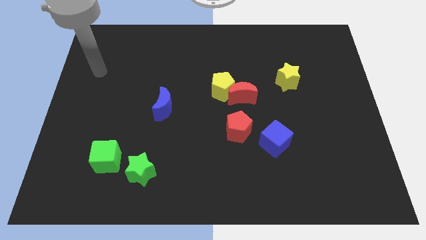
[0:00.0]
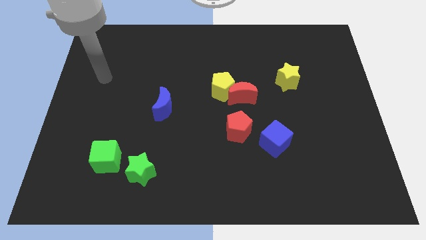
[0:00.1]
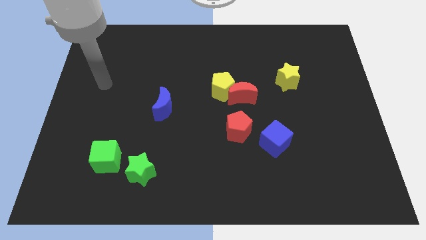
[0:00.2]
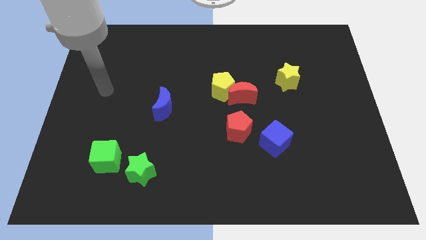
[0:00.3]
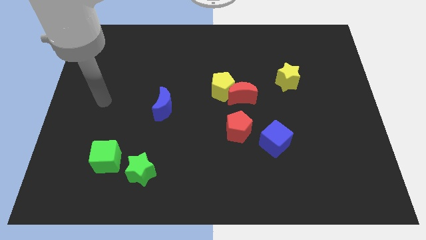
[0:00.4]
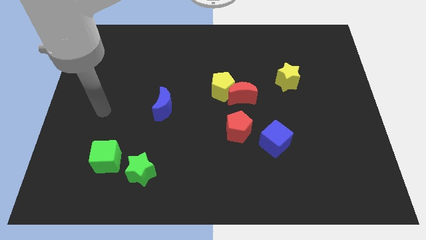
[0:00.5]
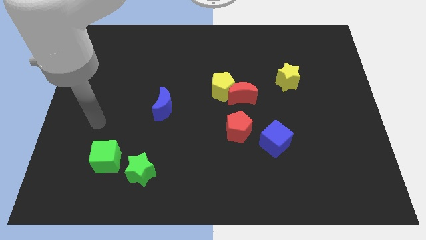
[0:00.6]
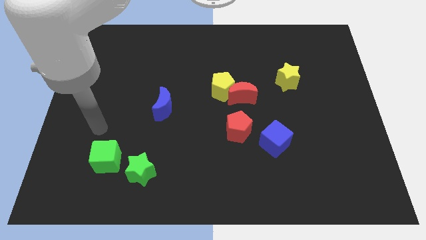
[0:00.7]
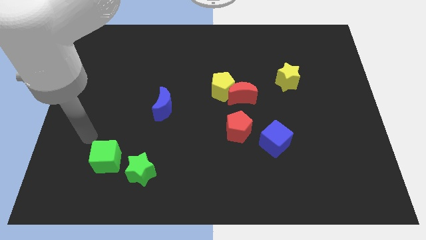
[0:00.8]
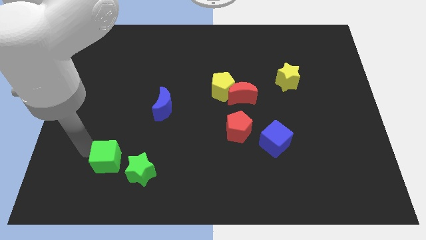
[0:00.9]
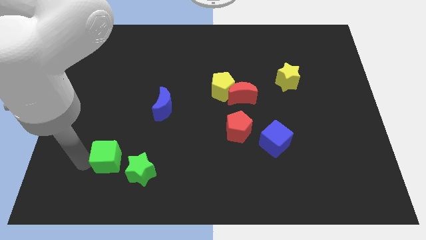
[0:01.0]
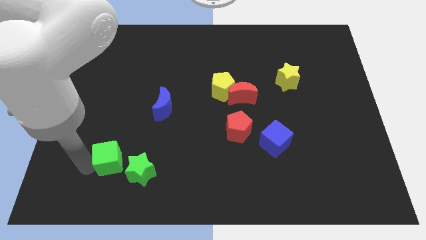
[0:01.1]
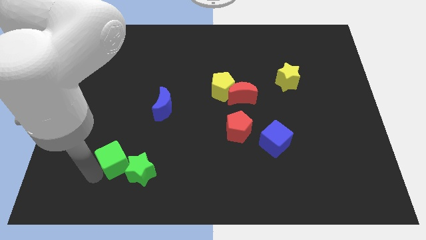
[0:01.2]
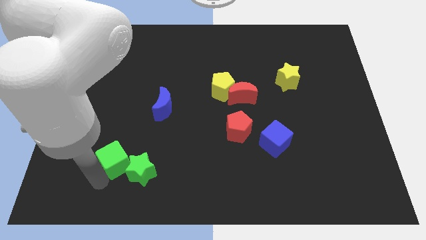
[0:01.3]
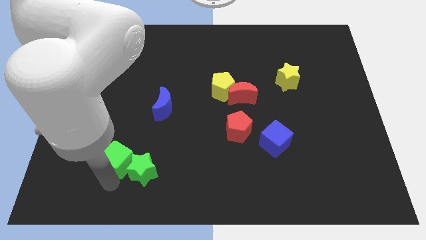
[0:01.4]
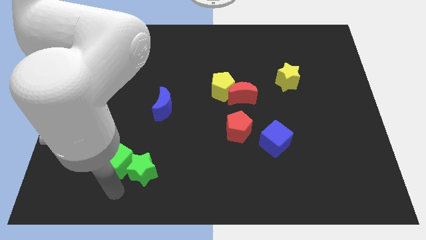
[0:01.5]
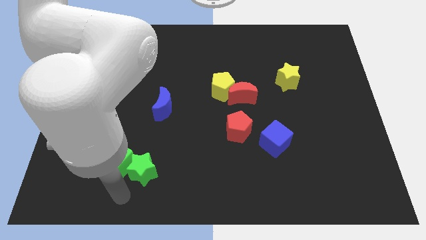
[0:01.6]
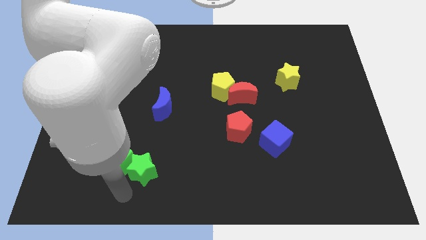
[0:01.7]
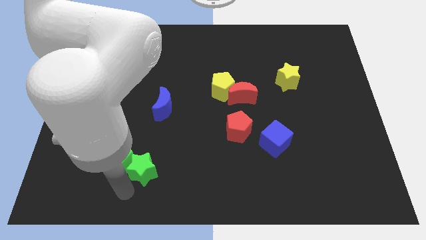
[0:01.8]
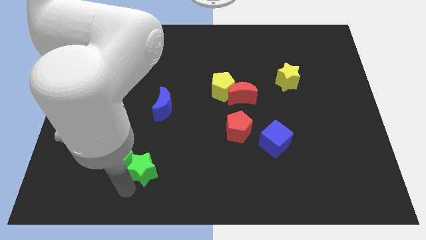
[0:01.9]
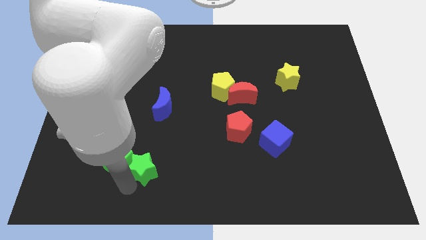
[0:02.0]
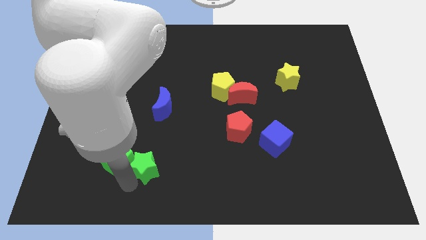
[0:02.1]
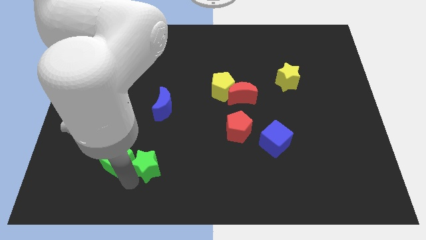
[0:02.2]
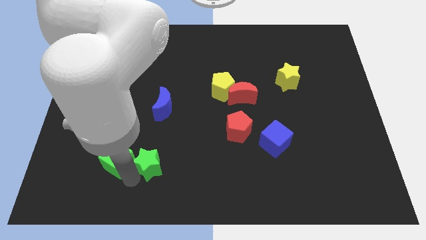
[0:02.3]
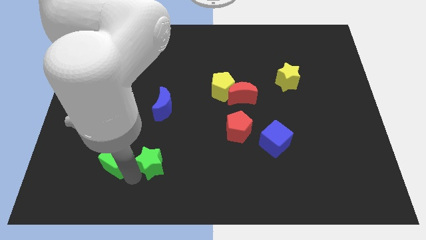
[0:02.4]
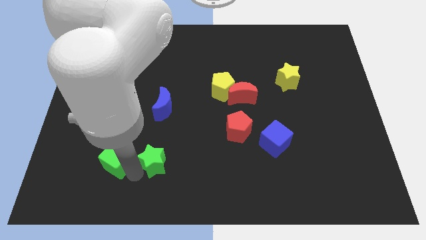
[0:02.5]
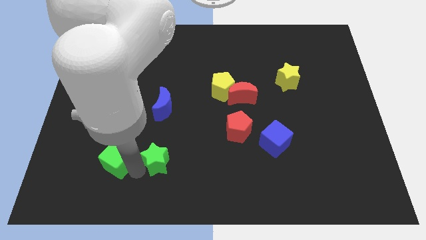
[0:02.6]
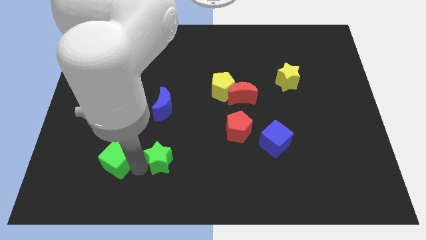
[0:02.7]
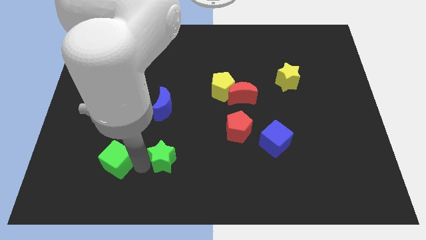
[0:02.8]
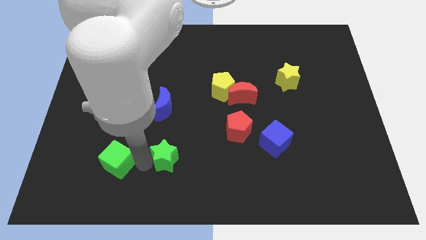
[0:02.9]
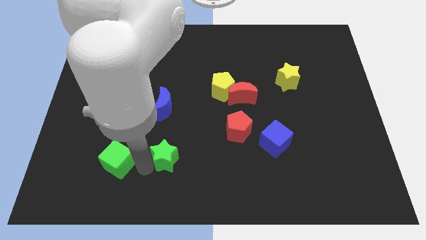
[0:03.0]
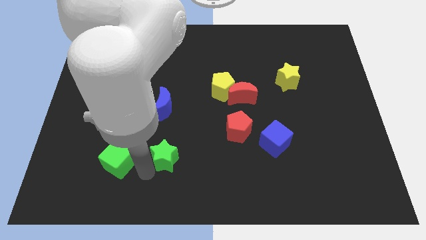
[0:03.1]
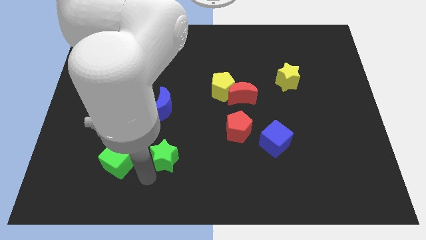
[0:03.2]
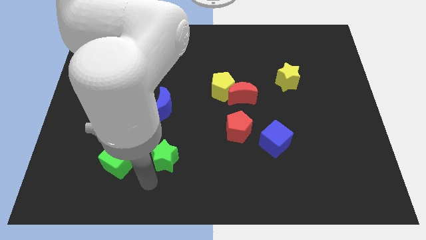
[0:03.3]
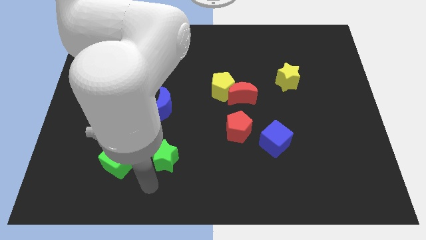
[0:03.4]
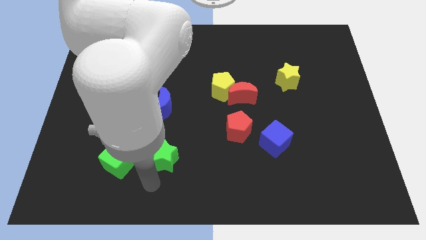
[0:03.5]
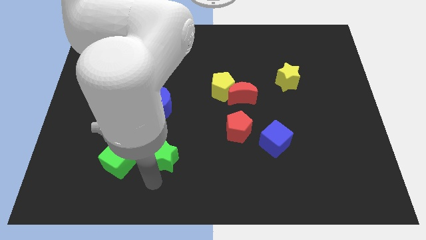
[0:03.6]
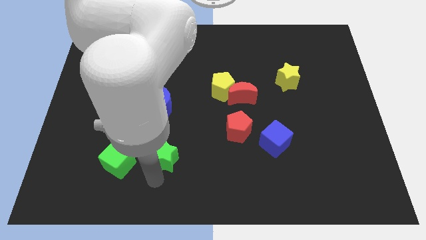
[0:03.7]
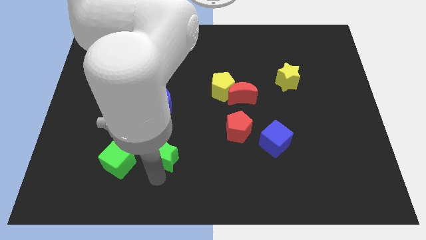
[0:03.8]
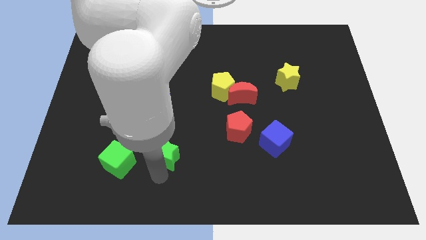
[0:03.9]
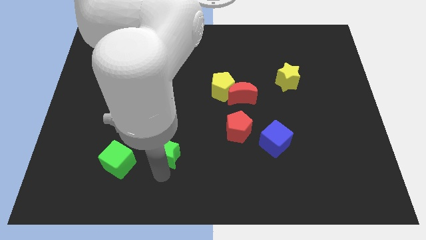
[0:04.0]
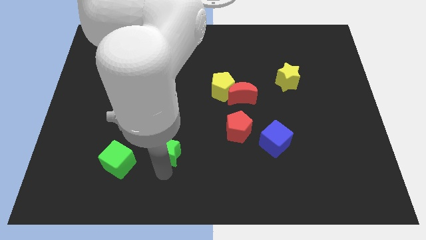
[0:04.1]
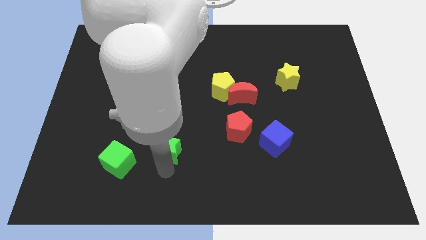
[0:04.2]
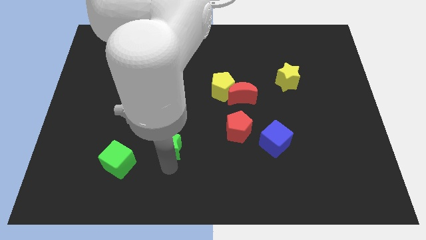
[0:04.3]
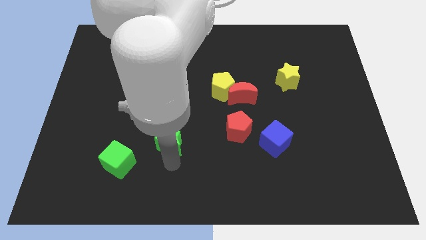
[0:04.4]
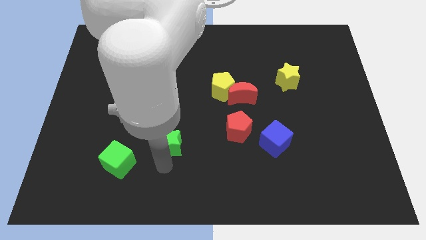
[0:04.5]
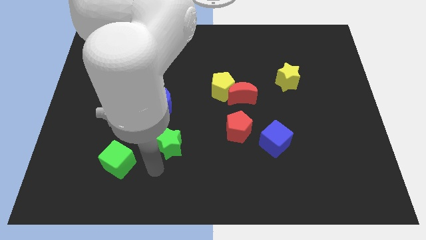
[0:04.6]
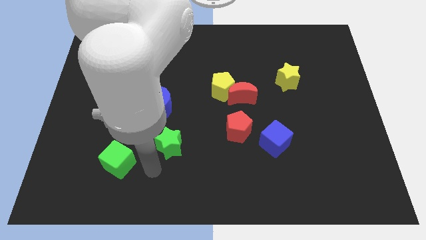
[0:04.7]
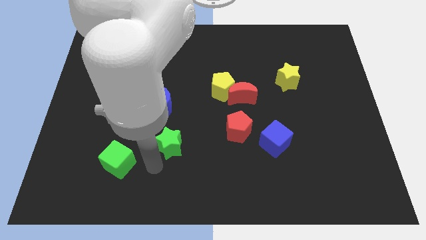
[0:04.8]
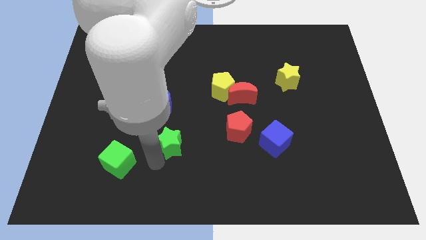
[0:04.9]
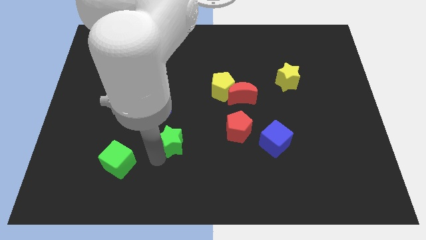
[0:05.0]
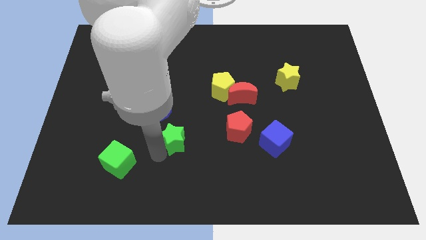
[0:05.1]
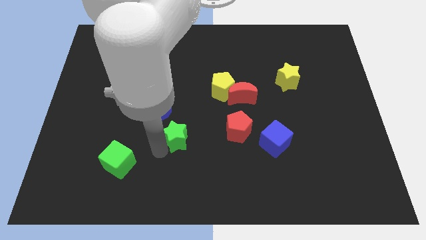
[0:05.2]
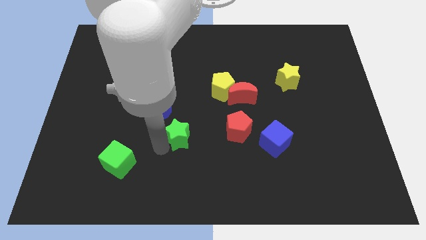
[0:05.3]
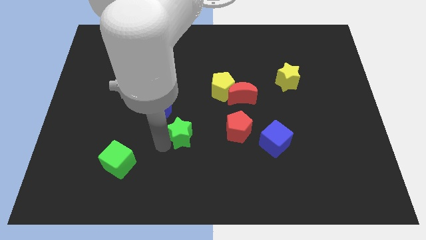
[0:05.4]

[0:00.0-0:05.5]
push the green star to the center of the board
